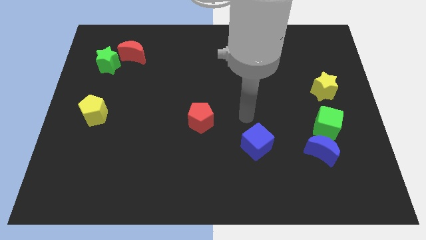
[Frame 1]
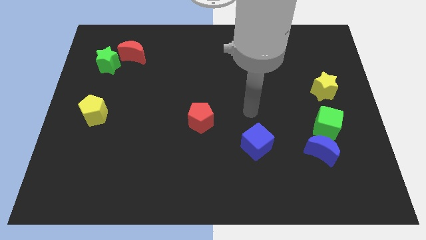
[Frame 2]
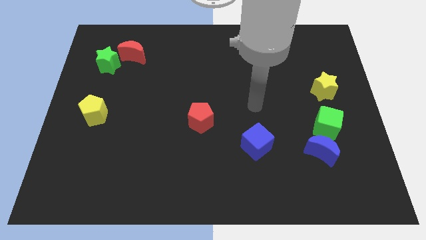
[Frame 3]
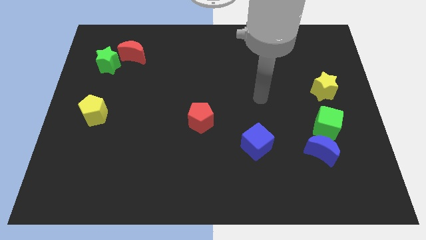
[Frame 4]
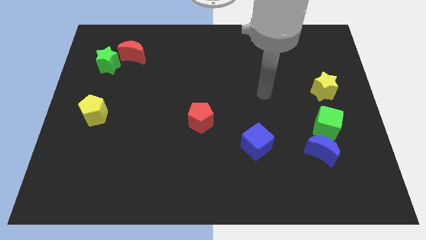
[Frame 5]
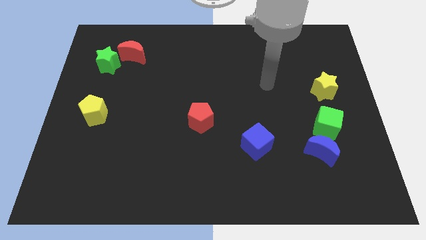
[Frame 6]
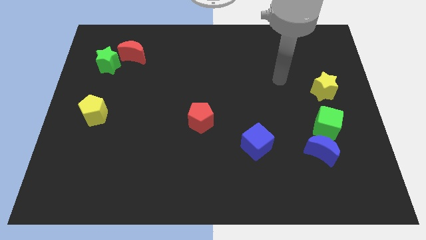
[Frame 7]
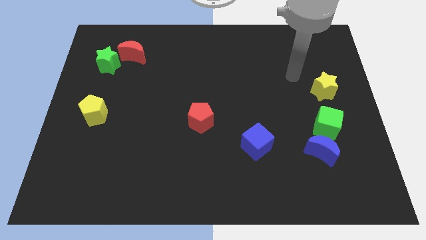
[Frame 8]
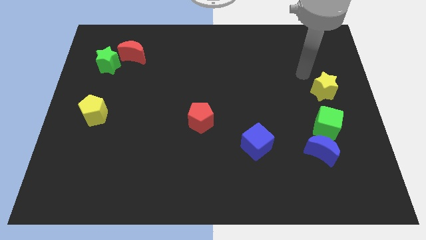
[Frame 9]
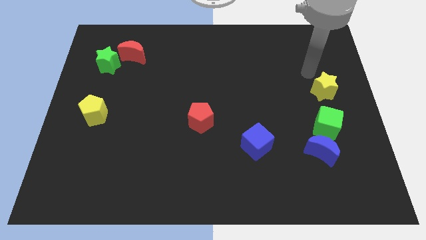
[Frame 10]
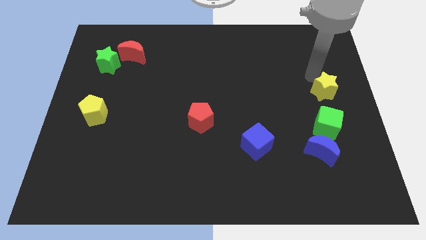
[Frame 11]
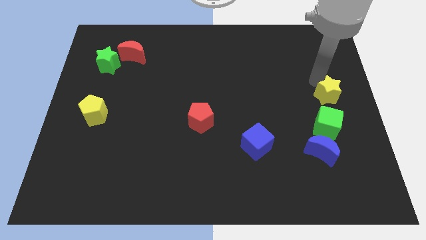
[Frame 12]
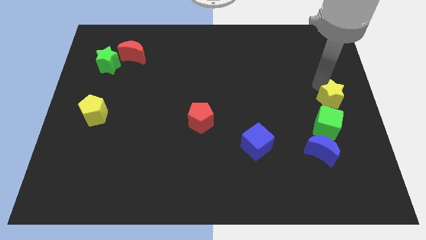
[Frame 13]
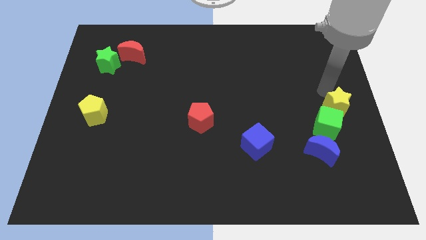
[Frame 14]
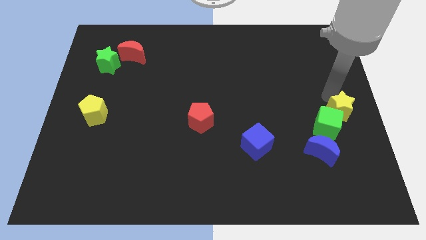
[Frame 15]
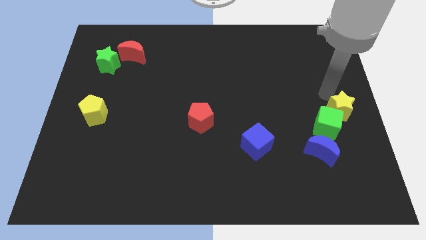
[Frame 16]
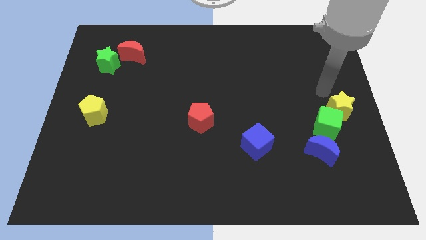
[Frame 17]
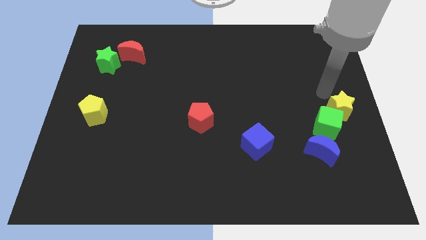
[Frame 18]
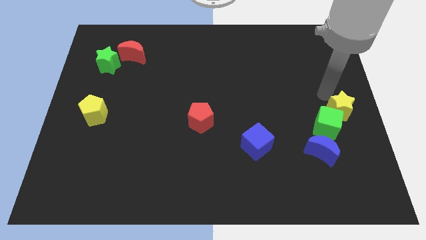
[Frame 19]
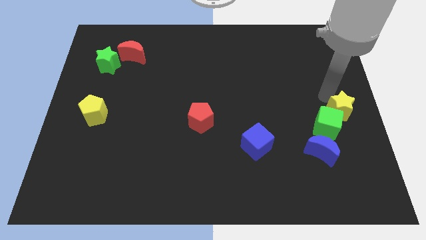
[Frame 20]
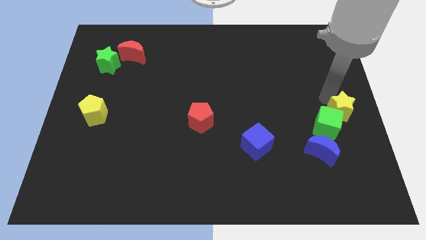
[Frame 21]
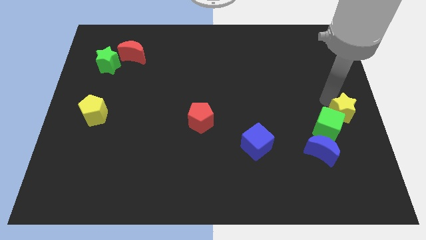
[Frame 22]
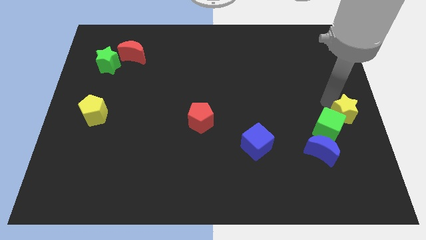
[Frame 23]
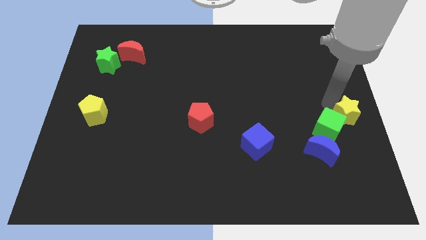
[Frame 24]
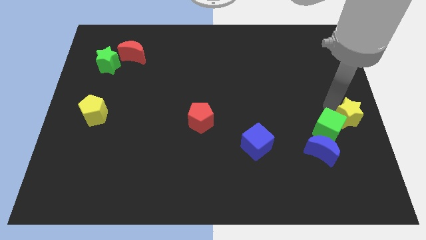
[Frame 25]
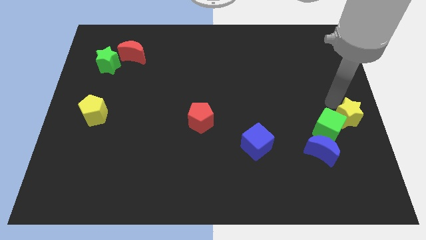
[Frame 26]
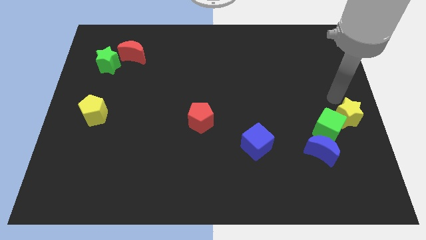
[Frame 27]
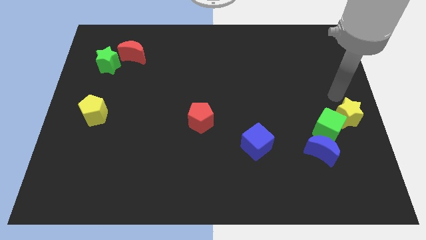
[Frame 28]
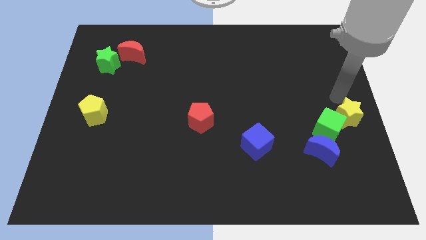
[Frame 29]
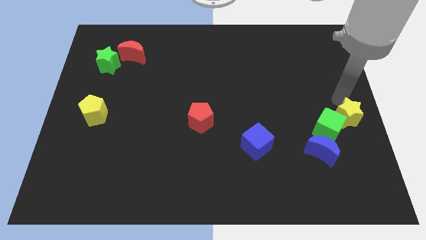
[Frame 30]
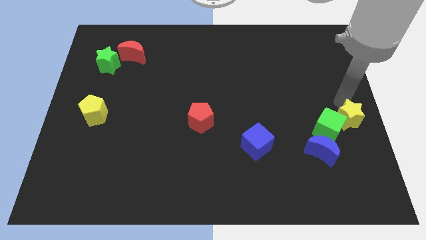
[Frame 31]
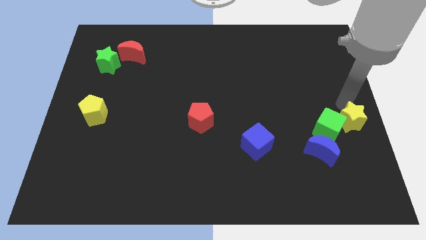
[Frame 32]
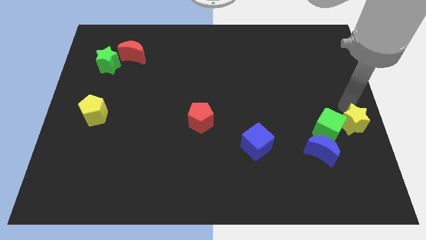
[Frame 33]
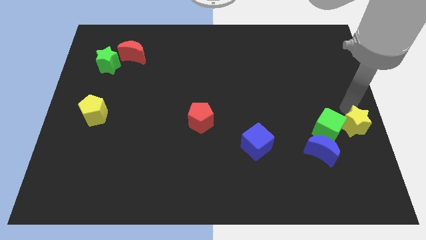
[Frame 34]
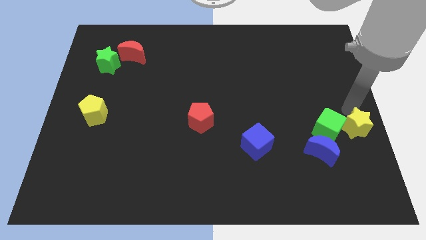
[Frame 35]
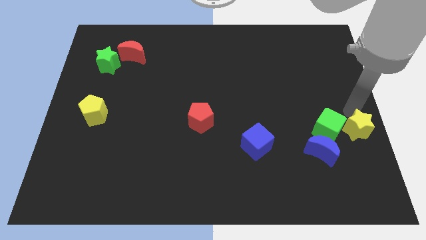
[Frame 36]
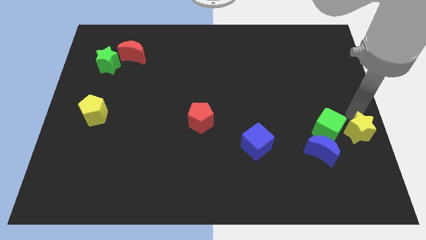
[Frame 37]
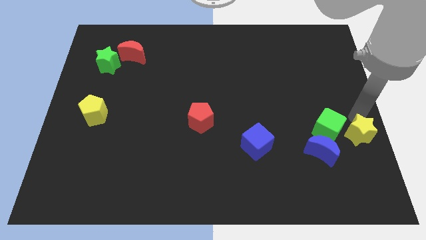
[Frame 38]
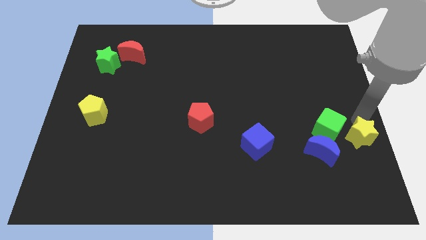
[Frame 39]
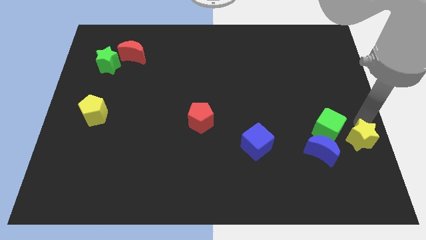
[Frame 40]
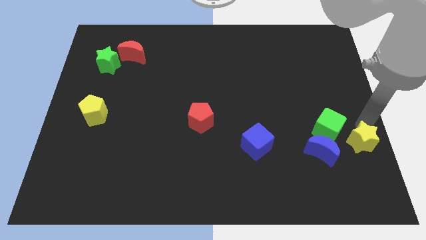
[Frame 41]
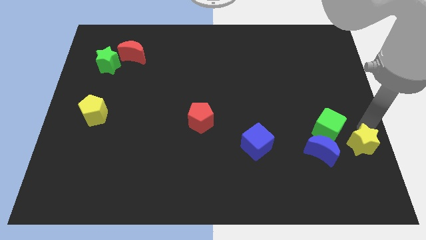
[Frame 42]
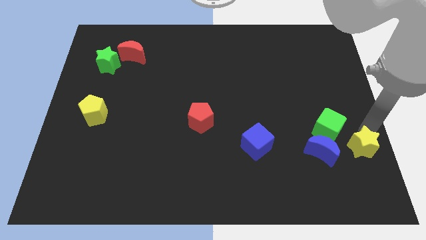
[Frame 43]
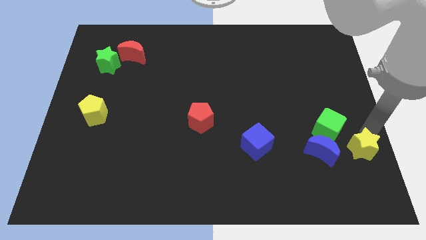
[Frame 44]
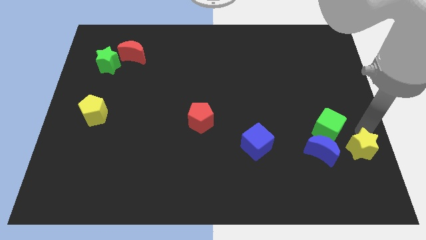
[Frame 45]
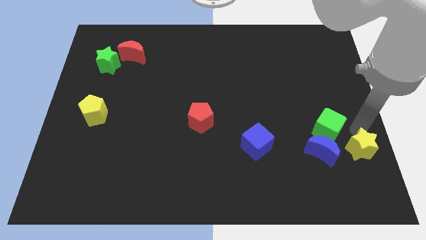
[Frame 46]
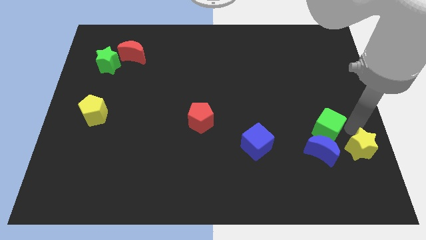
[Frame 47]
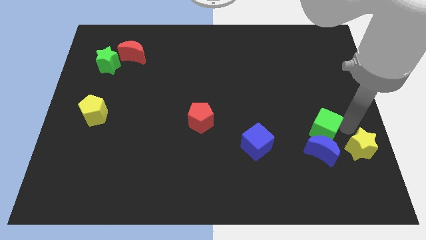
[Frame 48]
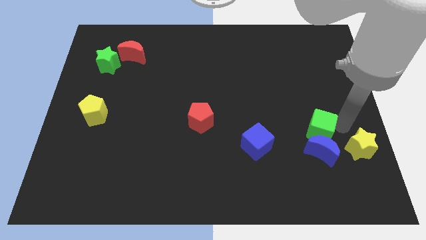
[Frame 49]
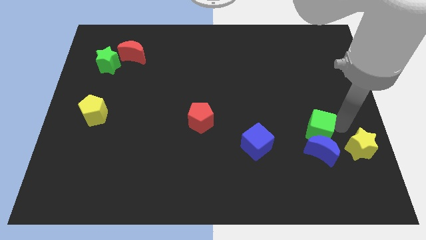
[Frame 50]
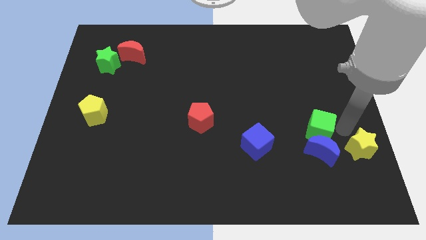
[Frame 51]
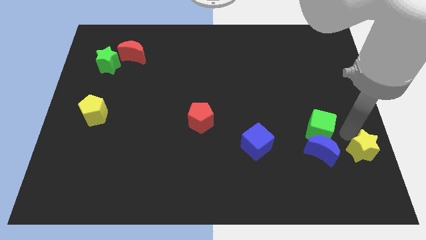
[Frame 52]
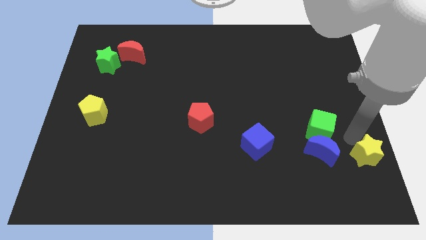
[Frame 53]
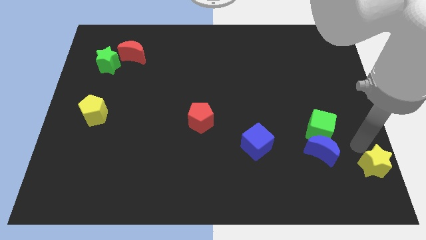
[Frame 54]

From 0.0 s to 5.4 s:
move the yellow star to the lower right corner

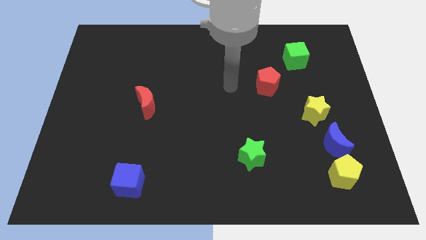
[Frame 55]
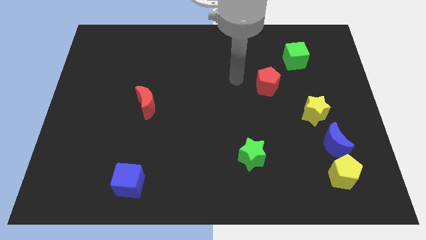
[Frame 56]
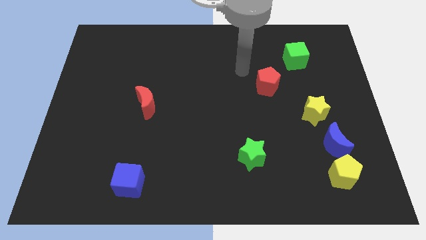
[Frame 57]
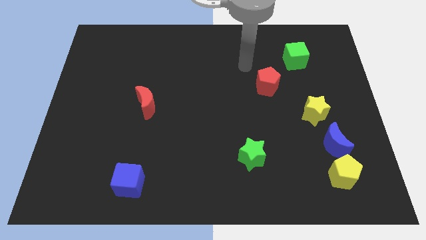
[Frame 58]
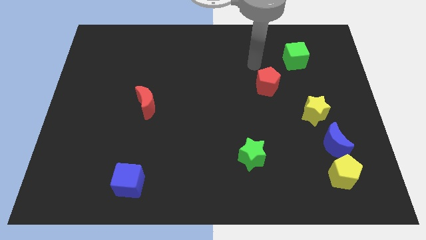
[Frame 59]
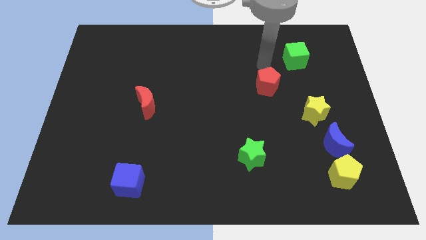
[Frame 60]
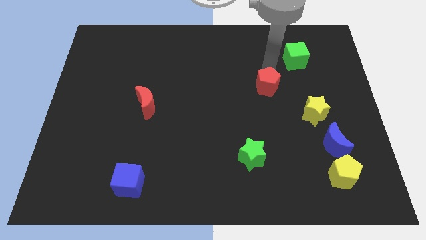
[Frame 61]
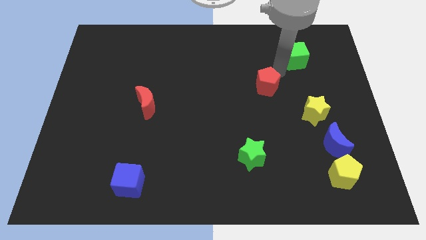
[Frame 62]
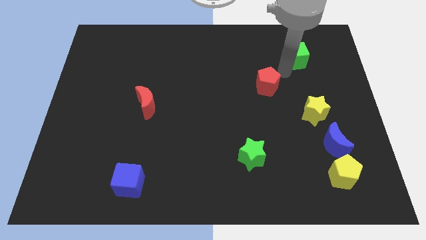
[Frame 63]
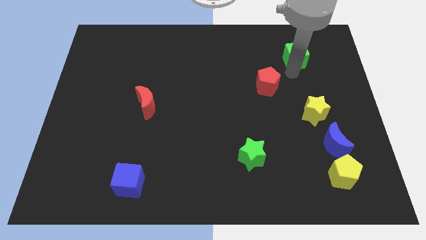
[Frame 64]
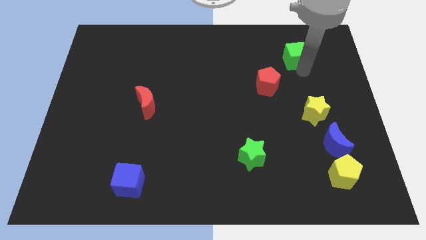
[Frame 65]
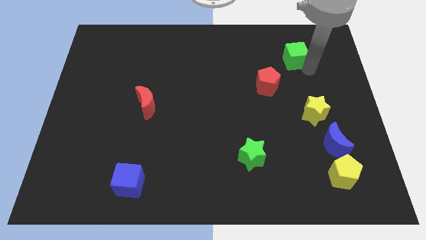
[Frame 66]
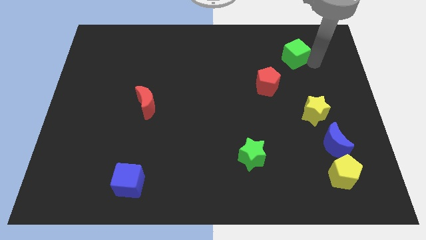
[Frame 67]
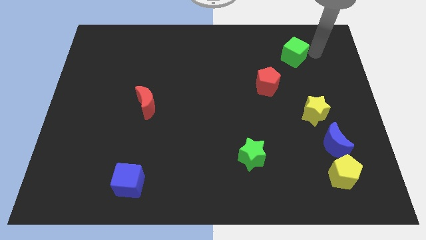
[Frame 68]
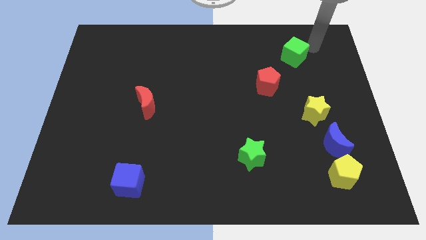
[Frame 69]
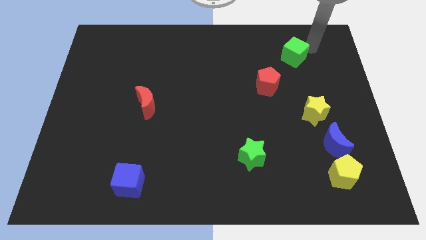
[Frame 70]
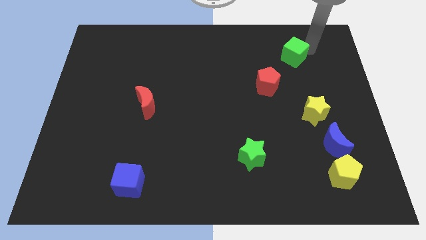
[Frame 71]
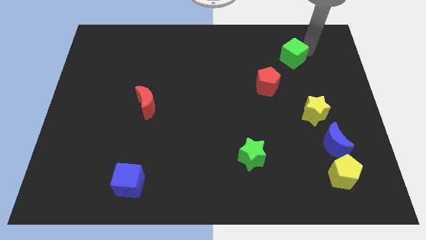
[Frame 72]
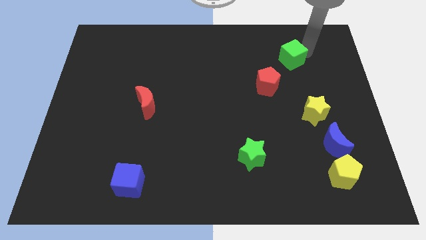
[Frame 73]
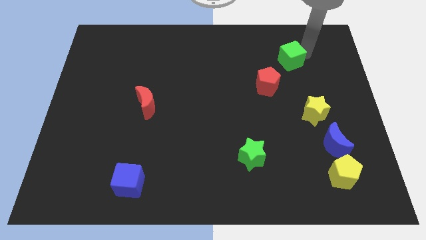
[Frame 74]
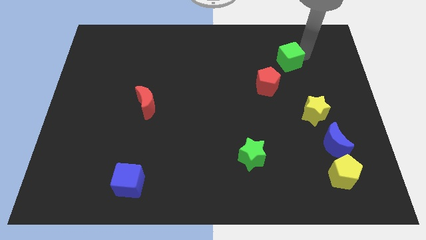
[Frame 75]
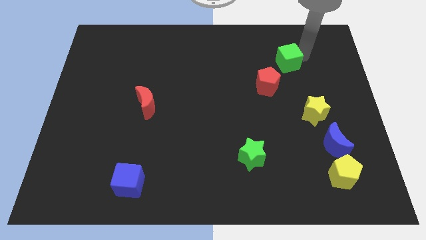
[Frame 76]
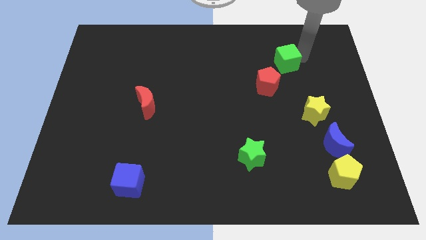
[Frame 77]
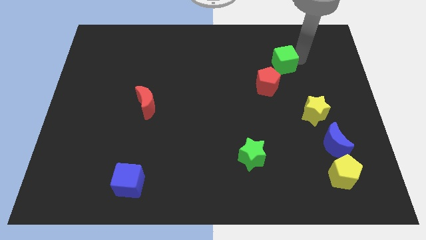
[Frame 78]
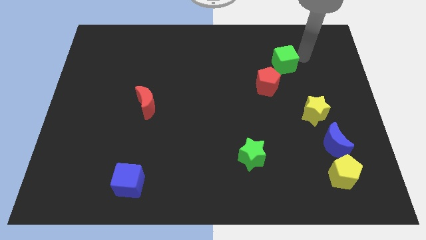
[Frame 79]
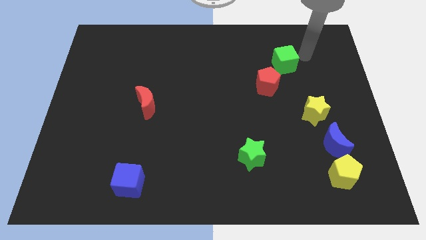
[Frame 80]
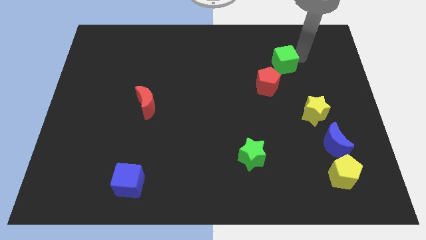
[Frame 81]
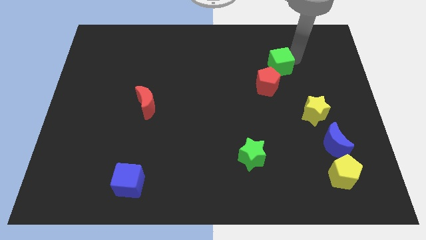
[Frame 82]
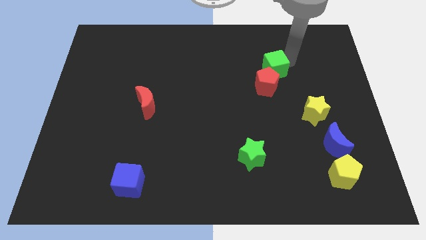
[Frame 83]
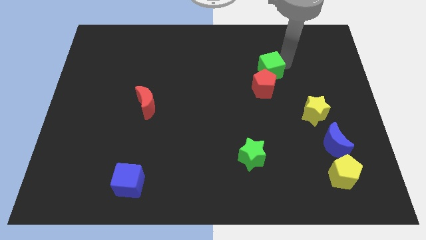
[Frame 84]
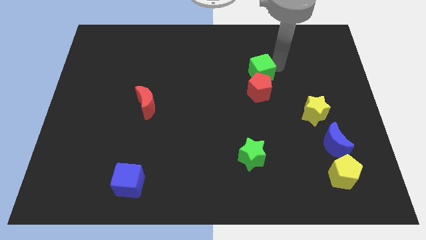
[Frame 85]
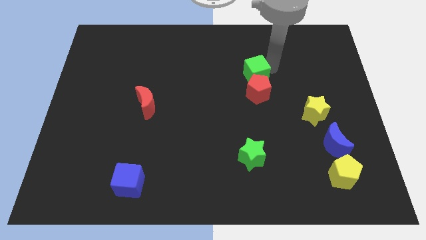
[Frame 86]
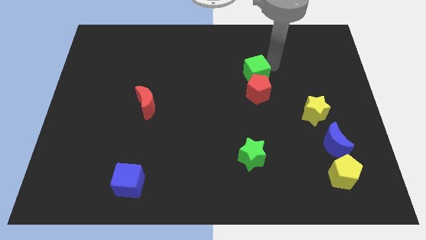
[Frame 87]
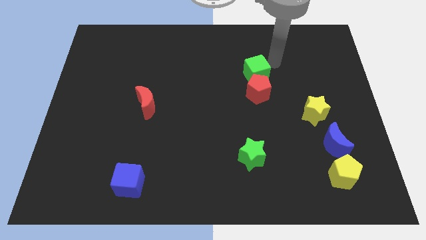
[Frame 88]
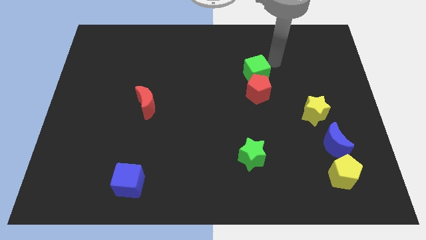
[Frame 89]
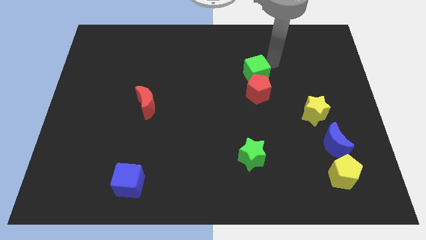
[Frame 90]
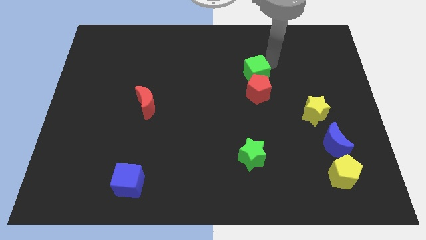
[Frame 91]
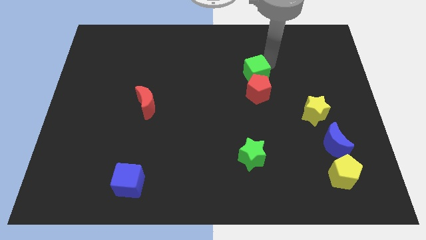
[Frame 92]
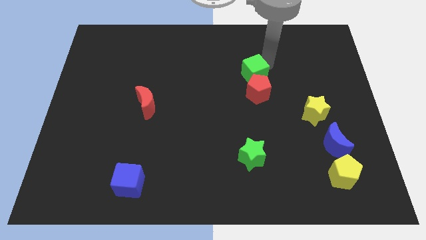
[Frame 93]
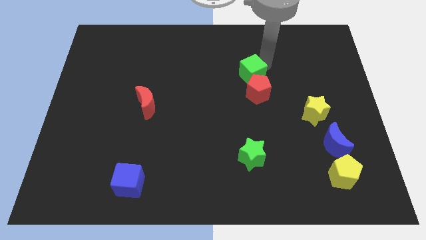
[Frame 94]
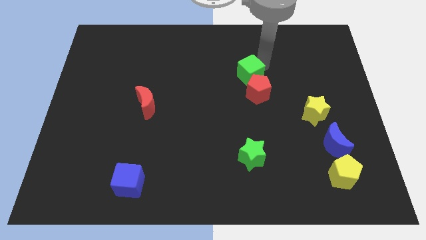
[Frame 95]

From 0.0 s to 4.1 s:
slide the green cube to the center of the board
